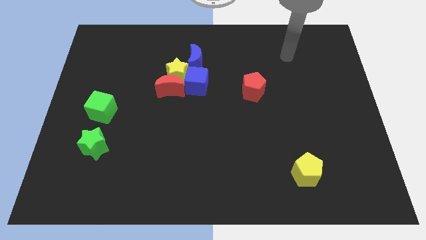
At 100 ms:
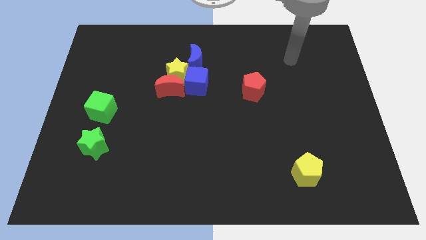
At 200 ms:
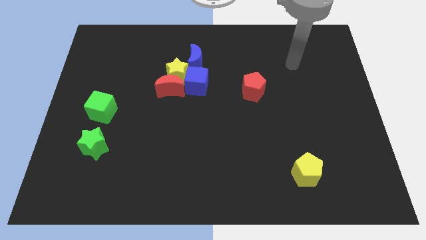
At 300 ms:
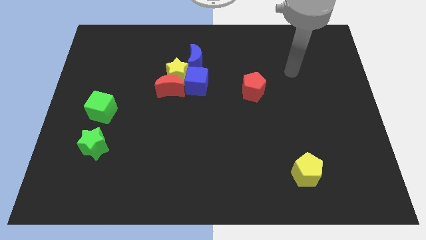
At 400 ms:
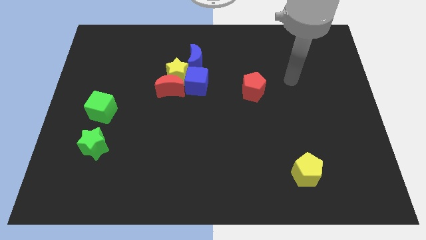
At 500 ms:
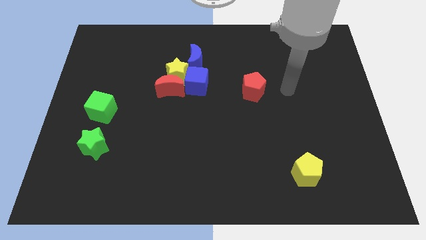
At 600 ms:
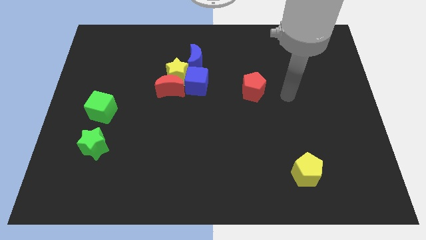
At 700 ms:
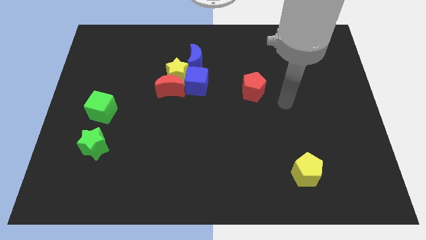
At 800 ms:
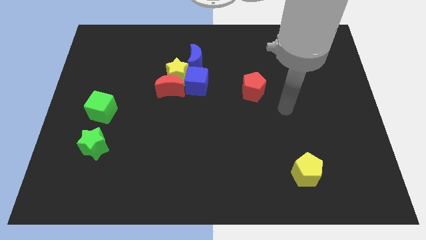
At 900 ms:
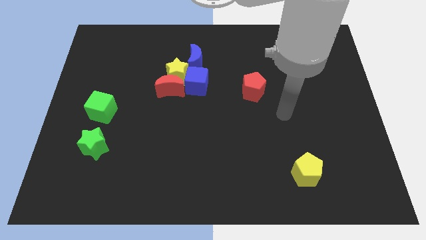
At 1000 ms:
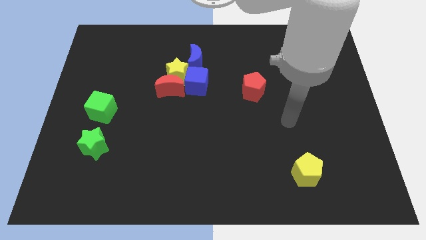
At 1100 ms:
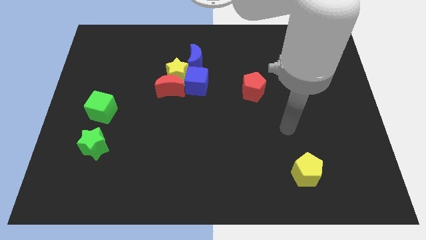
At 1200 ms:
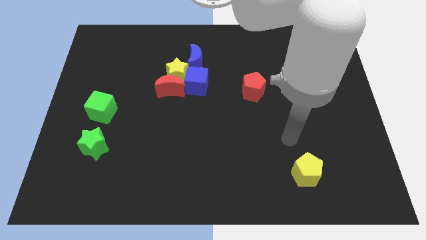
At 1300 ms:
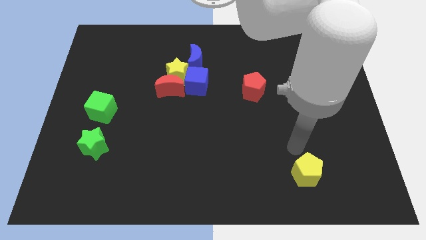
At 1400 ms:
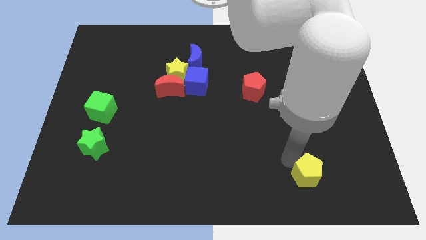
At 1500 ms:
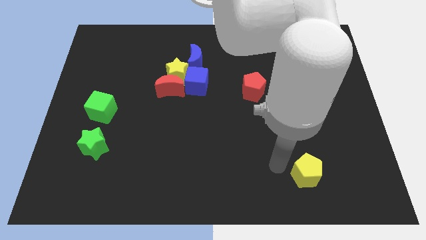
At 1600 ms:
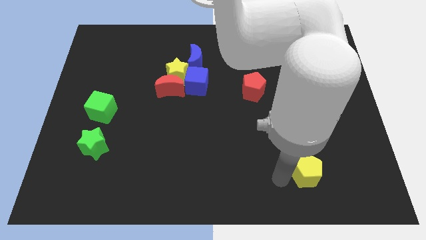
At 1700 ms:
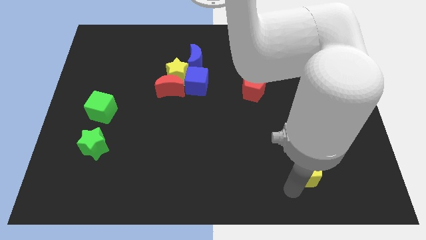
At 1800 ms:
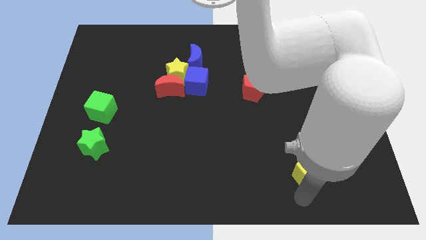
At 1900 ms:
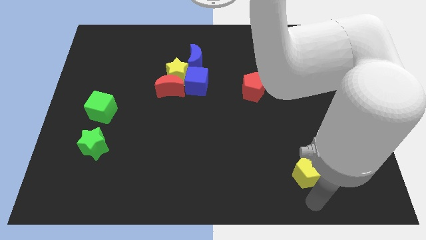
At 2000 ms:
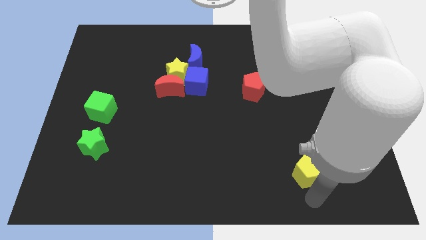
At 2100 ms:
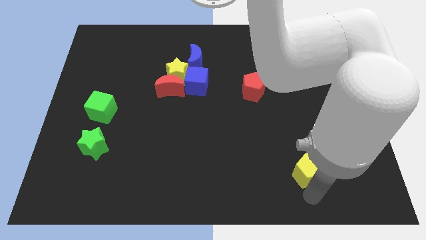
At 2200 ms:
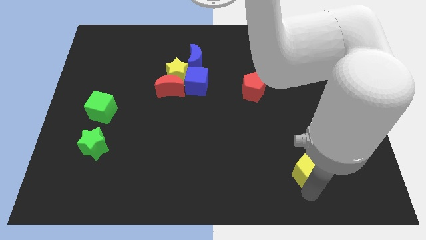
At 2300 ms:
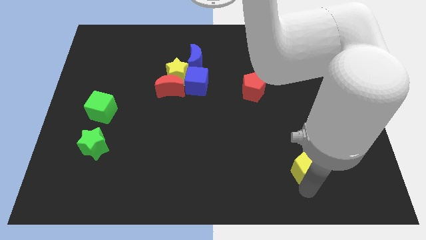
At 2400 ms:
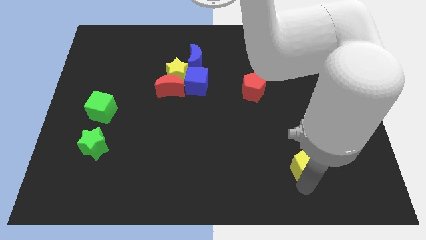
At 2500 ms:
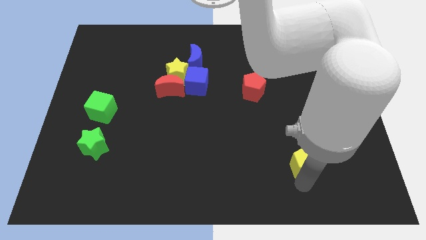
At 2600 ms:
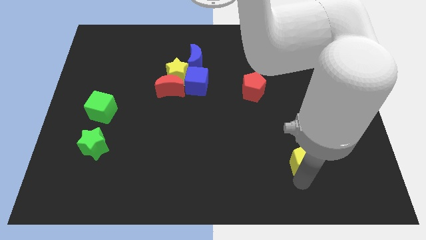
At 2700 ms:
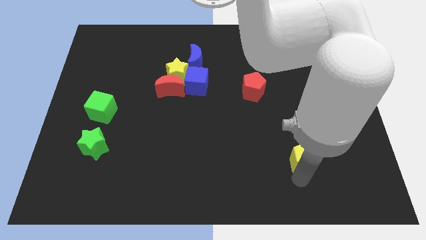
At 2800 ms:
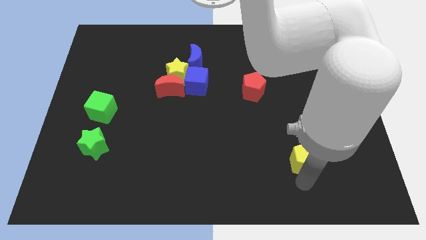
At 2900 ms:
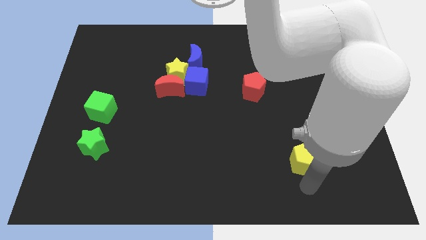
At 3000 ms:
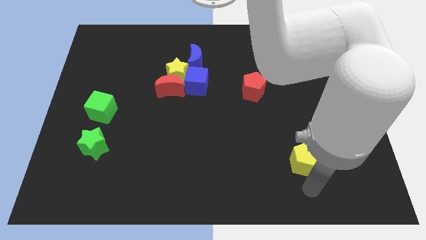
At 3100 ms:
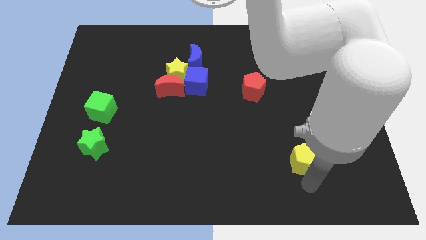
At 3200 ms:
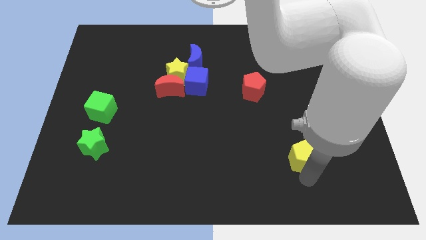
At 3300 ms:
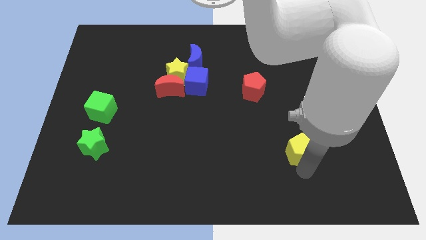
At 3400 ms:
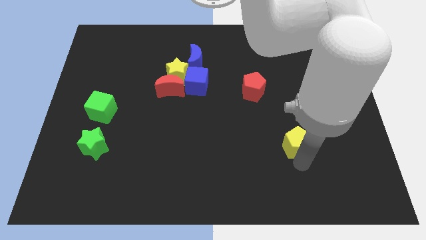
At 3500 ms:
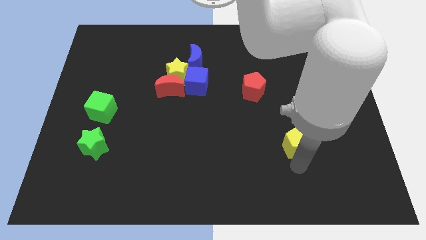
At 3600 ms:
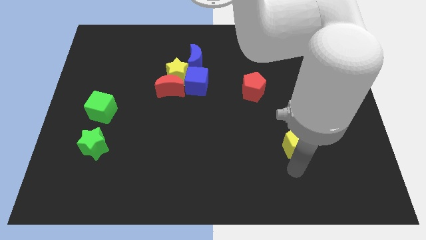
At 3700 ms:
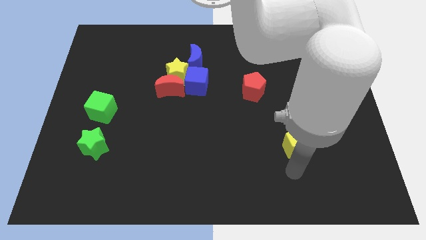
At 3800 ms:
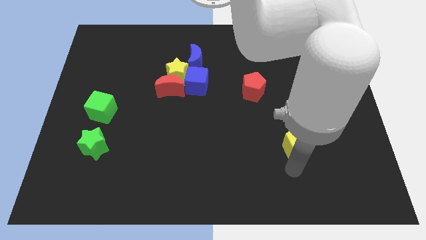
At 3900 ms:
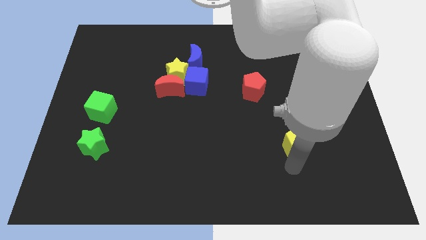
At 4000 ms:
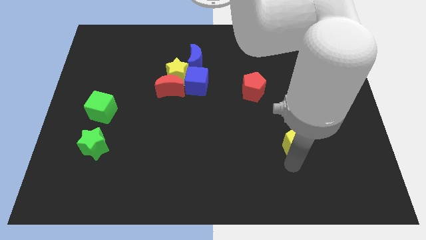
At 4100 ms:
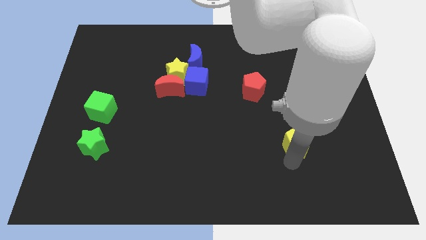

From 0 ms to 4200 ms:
slightly move the yellow pentagon up

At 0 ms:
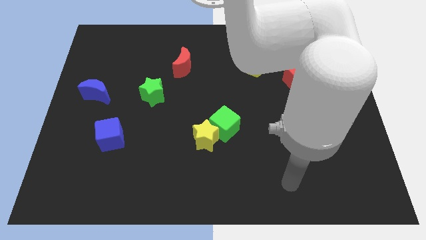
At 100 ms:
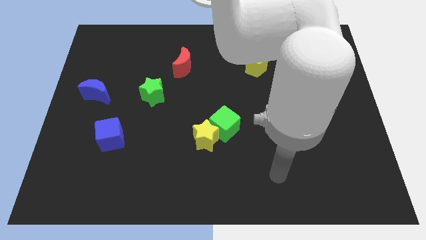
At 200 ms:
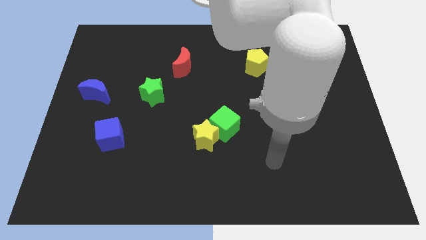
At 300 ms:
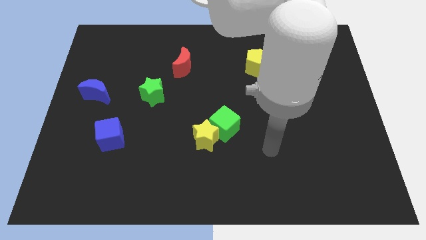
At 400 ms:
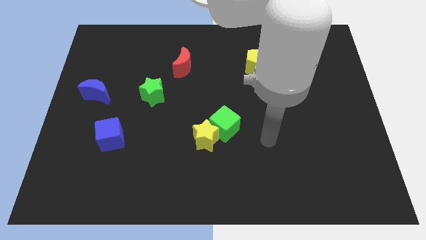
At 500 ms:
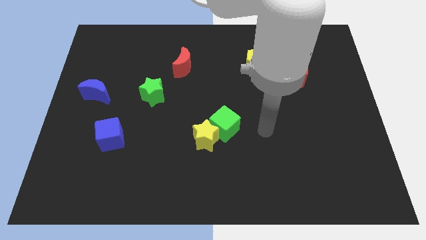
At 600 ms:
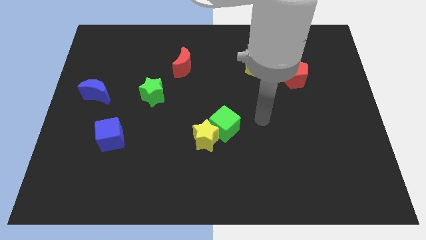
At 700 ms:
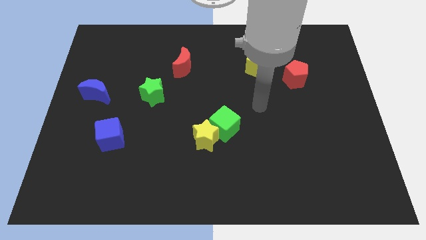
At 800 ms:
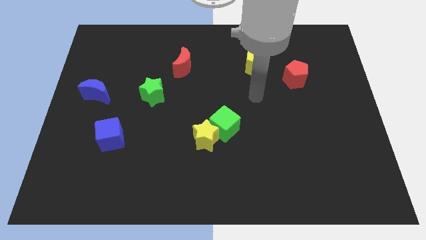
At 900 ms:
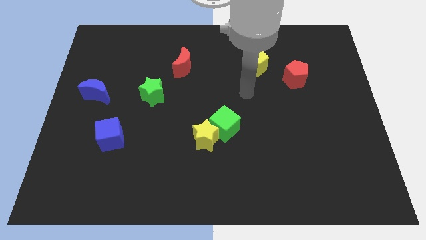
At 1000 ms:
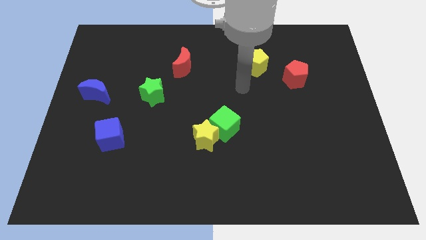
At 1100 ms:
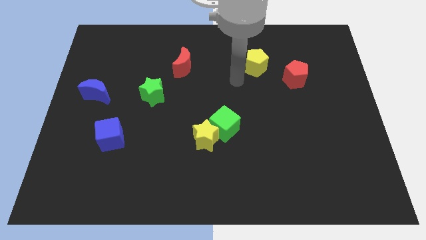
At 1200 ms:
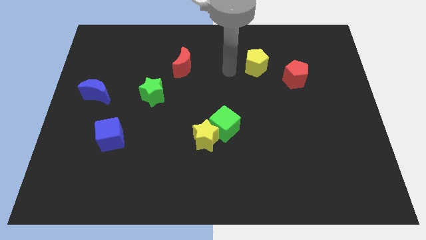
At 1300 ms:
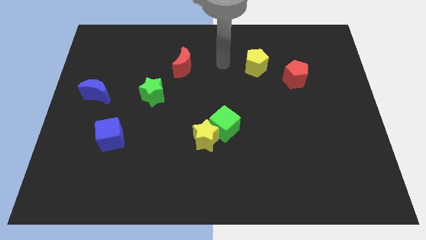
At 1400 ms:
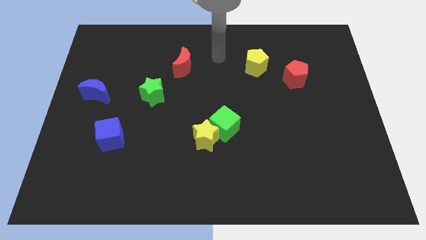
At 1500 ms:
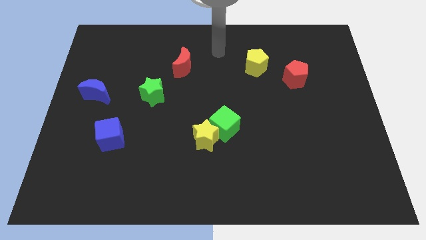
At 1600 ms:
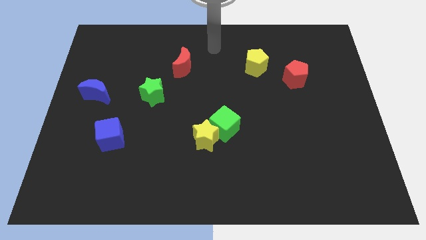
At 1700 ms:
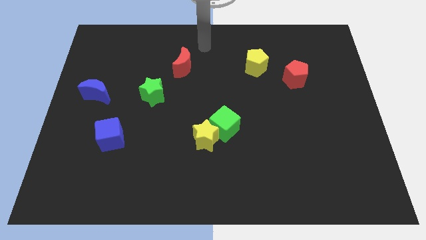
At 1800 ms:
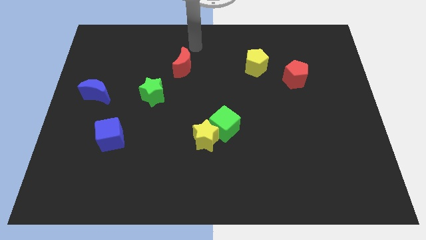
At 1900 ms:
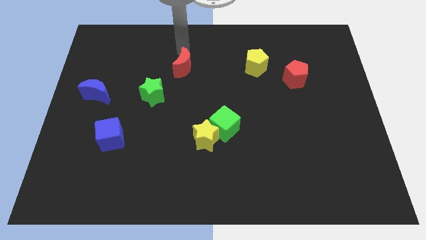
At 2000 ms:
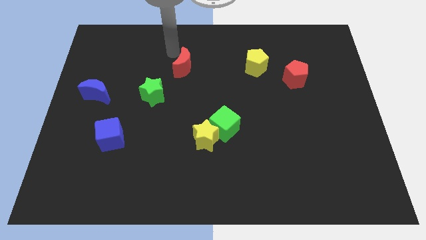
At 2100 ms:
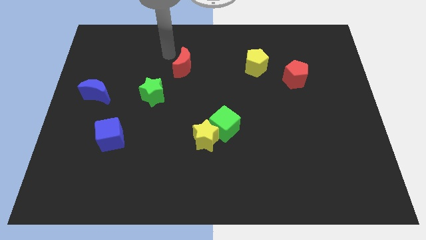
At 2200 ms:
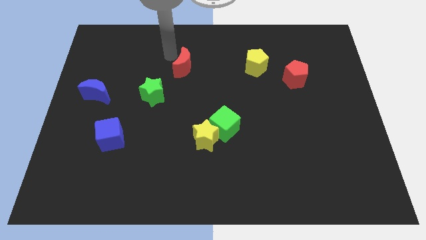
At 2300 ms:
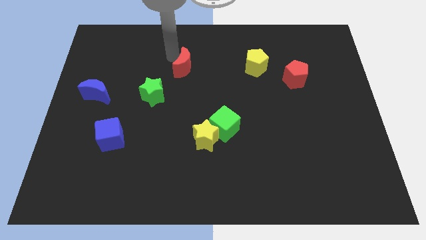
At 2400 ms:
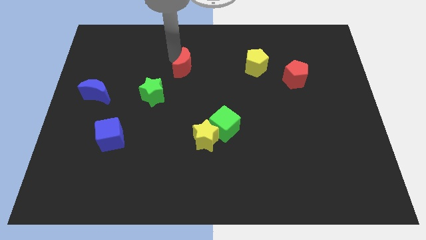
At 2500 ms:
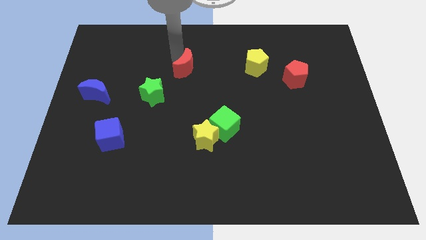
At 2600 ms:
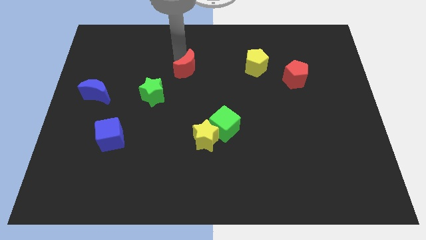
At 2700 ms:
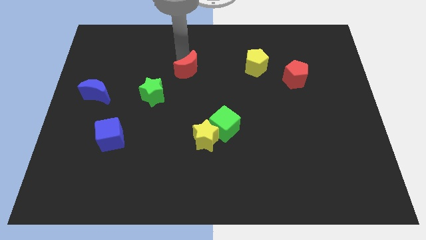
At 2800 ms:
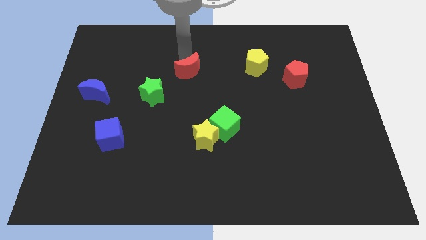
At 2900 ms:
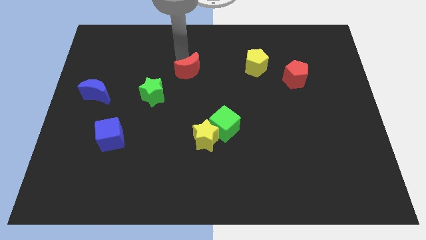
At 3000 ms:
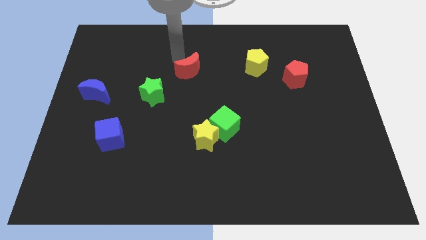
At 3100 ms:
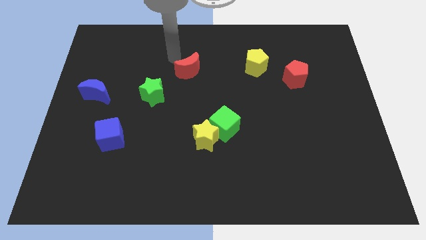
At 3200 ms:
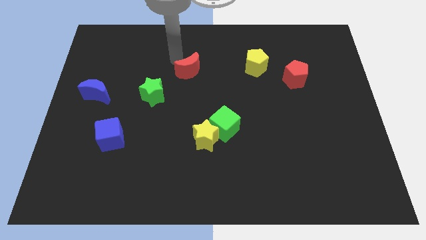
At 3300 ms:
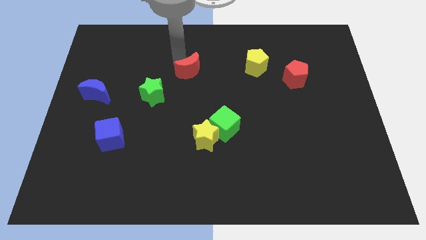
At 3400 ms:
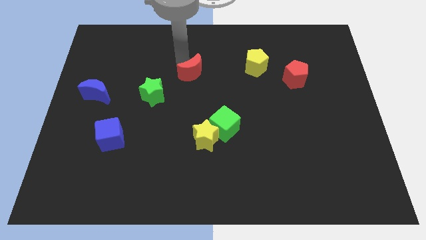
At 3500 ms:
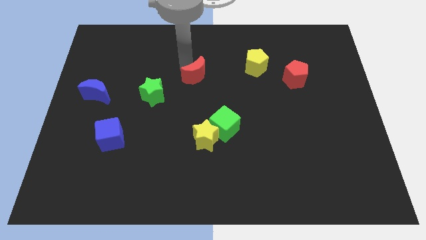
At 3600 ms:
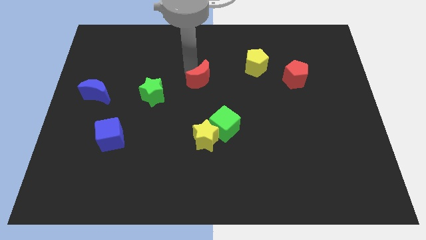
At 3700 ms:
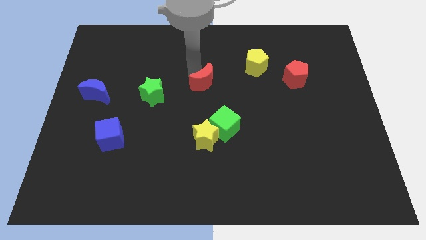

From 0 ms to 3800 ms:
move the red moon diagonally downwards and to the right a little bit
